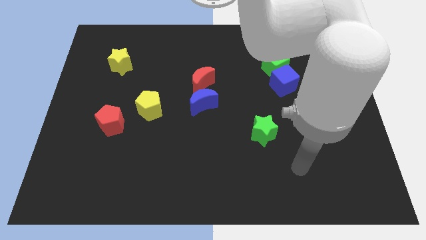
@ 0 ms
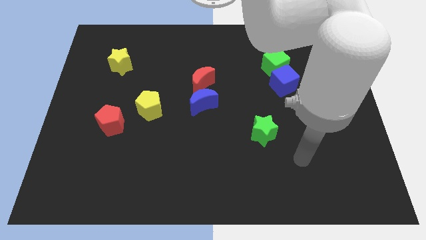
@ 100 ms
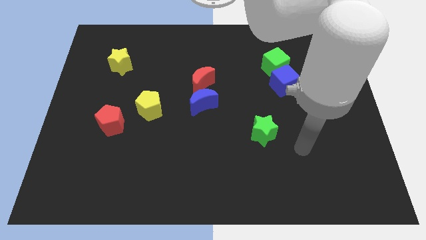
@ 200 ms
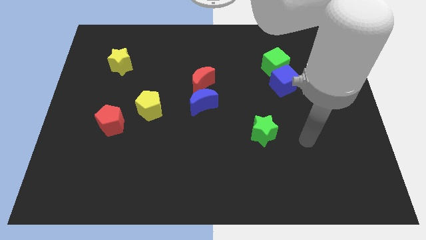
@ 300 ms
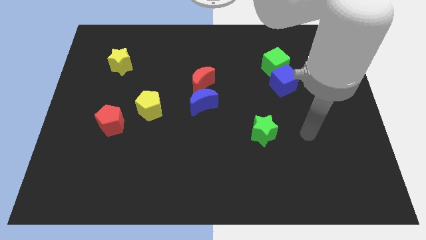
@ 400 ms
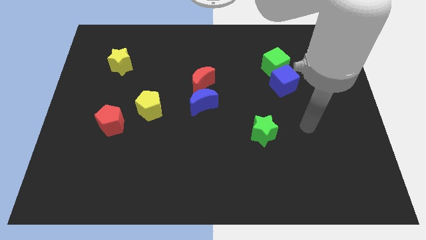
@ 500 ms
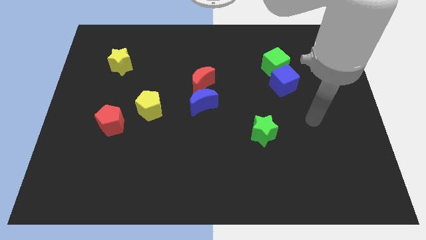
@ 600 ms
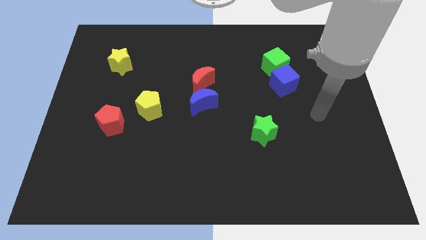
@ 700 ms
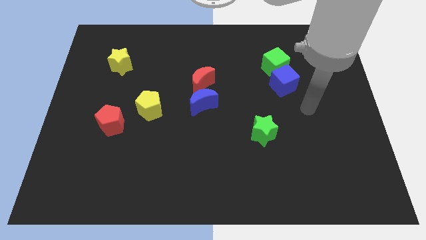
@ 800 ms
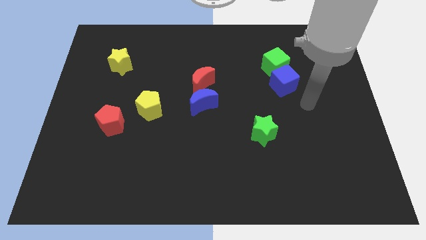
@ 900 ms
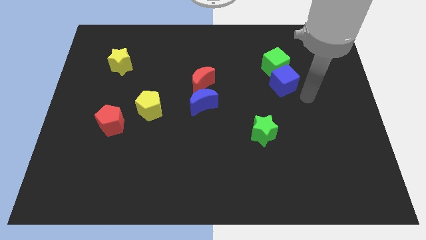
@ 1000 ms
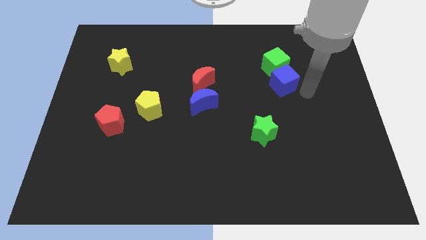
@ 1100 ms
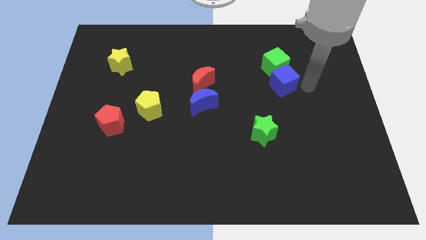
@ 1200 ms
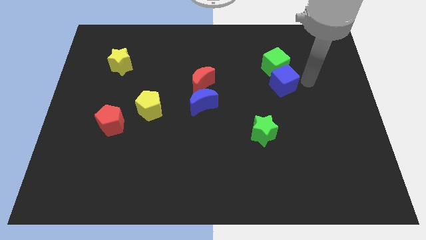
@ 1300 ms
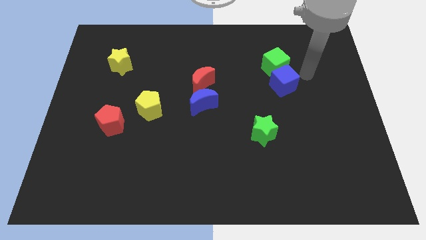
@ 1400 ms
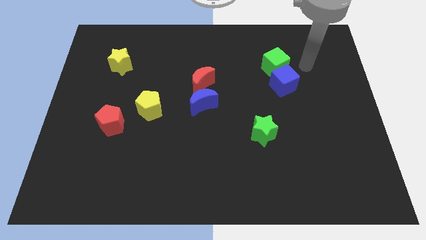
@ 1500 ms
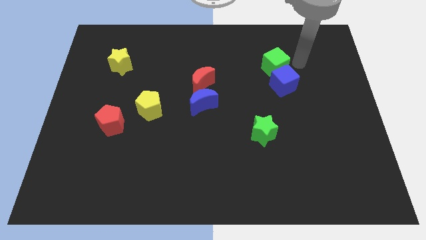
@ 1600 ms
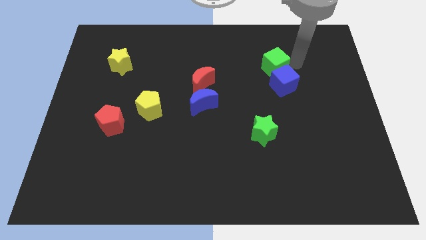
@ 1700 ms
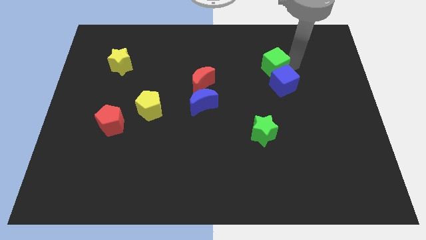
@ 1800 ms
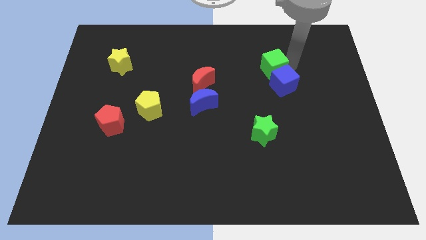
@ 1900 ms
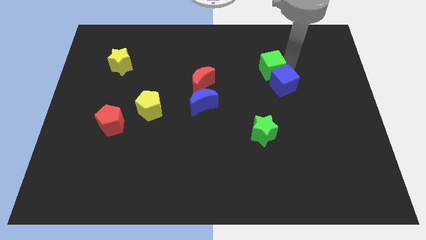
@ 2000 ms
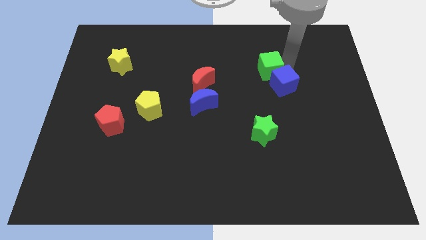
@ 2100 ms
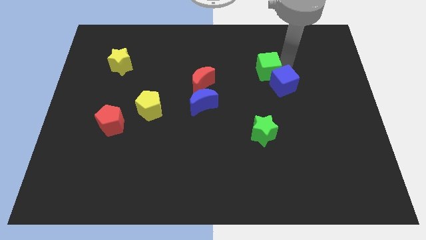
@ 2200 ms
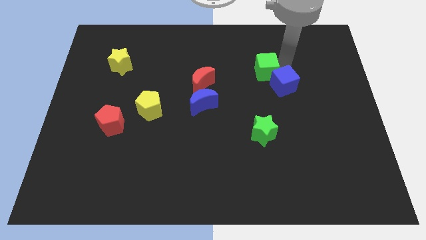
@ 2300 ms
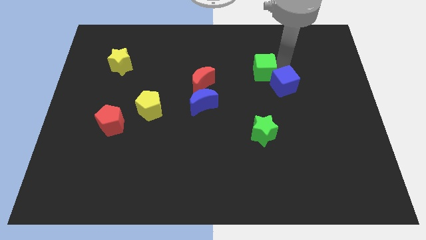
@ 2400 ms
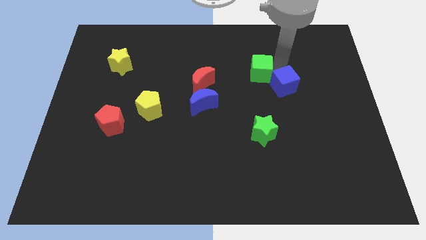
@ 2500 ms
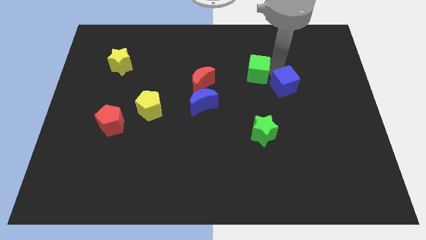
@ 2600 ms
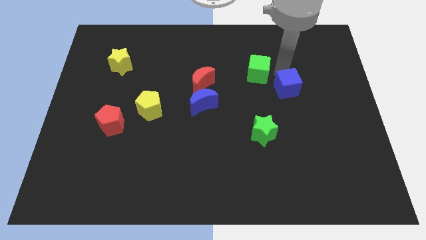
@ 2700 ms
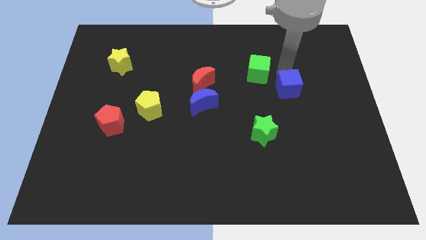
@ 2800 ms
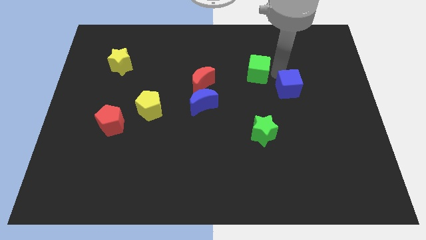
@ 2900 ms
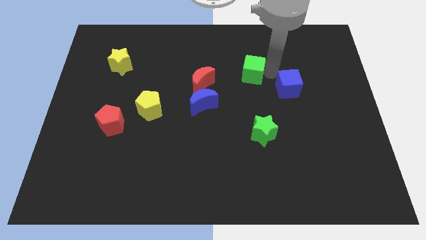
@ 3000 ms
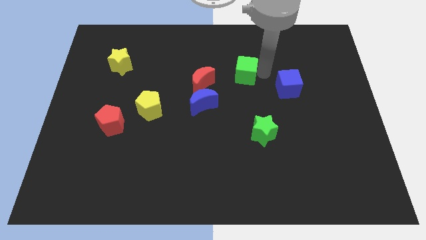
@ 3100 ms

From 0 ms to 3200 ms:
slide the green cube to the left somewhat

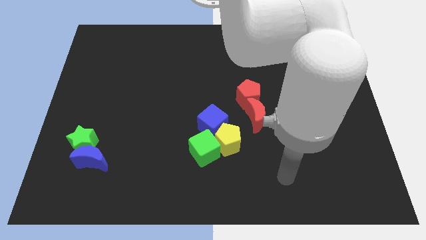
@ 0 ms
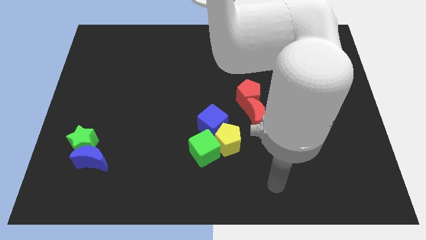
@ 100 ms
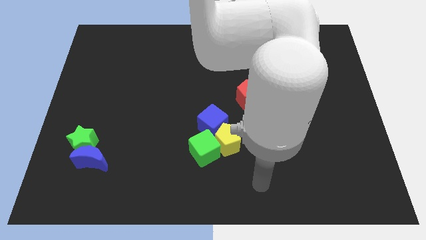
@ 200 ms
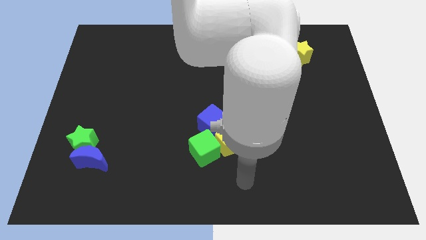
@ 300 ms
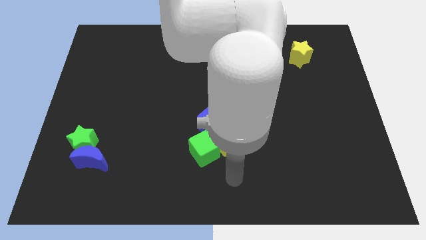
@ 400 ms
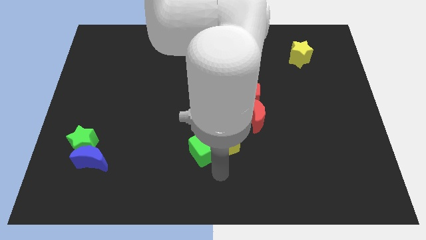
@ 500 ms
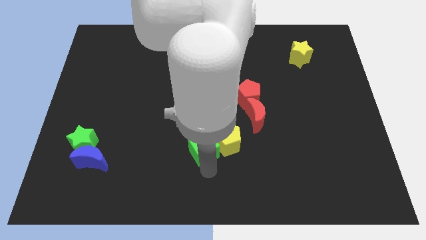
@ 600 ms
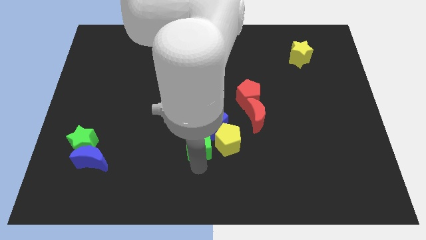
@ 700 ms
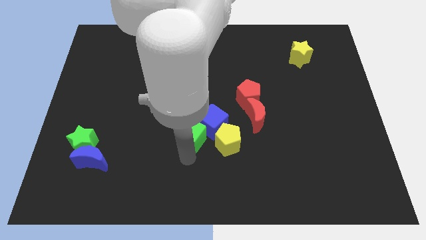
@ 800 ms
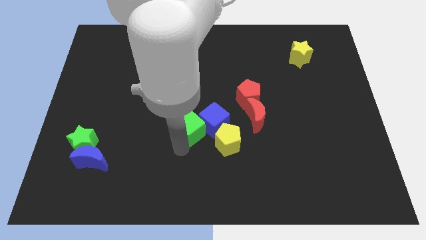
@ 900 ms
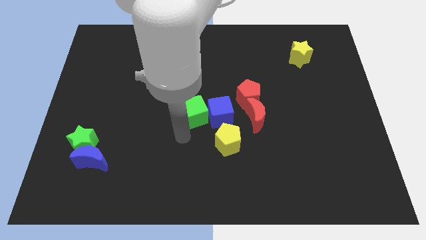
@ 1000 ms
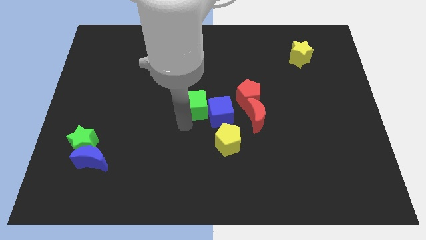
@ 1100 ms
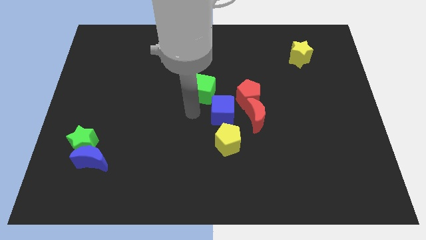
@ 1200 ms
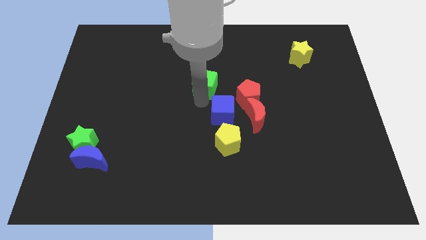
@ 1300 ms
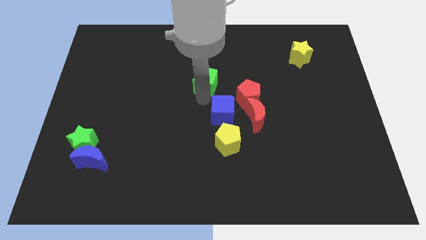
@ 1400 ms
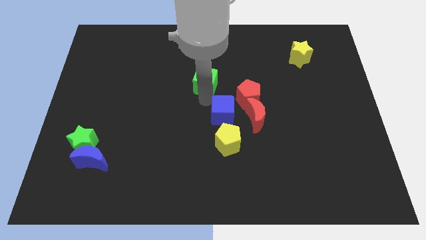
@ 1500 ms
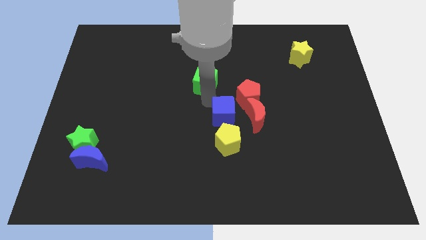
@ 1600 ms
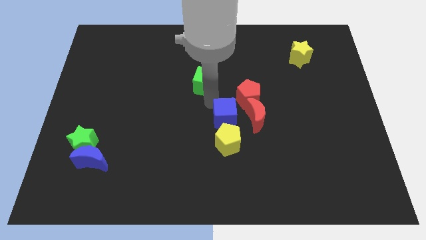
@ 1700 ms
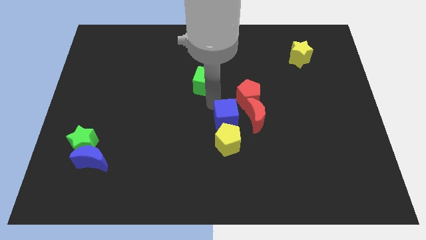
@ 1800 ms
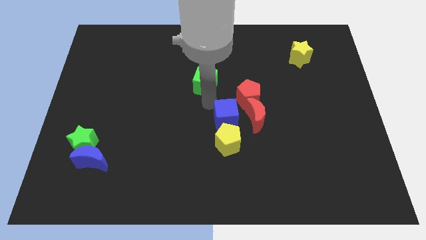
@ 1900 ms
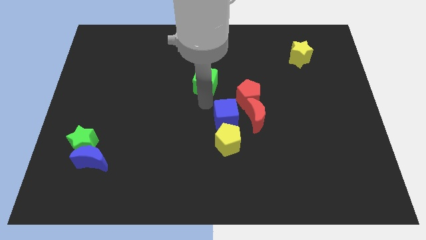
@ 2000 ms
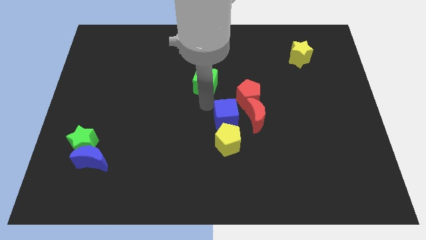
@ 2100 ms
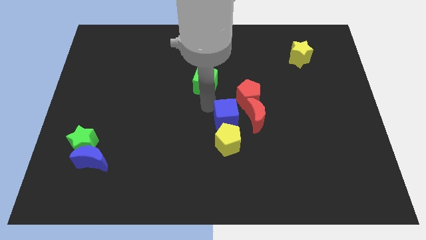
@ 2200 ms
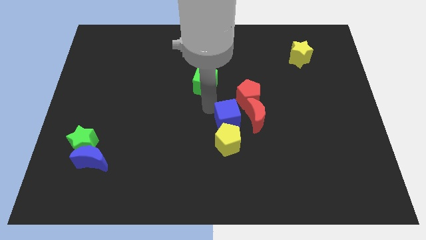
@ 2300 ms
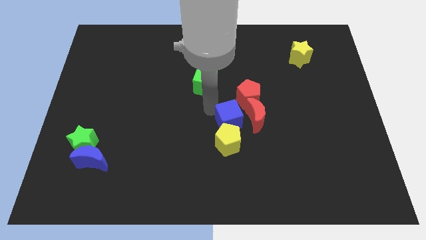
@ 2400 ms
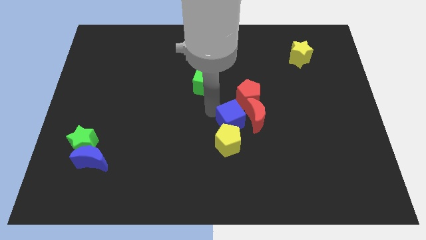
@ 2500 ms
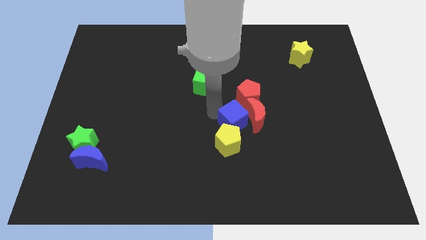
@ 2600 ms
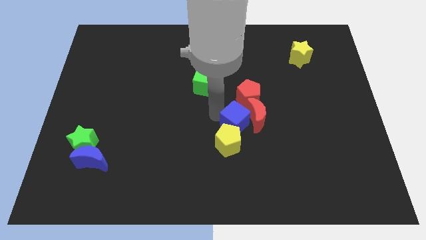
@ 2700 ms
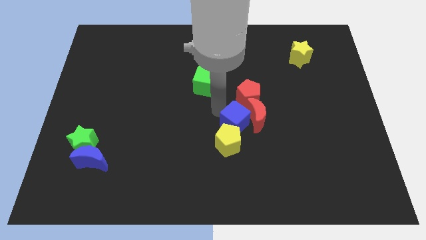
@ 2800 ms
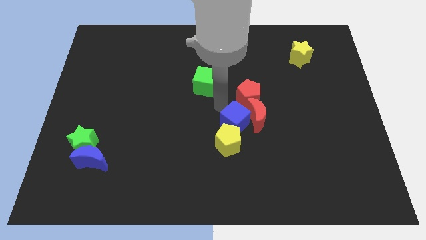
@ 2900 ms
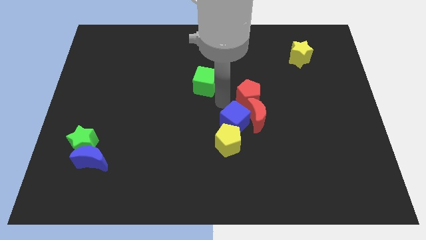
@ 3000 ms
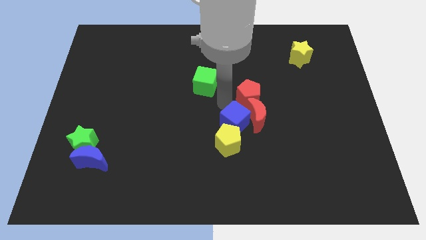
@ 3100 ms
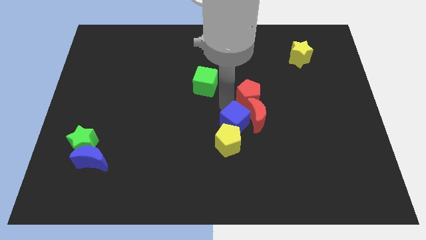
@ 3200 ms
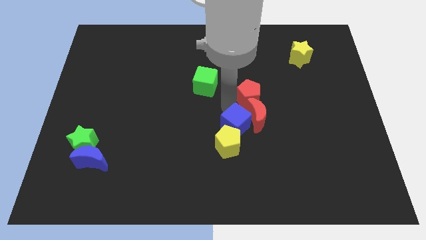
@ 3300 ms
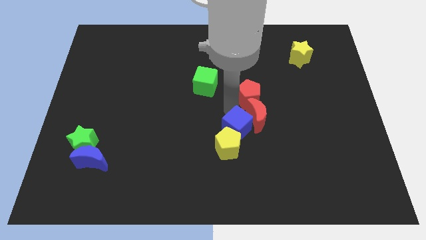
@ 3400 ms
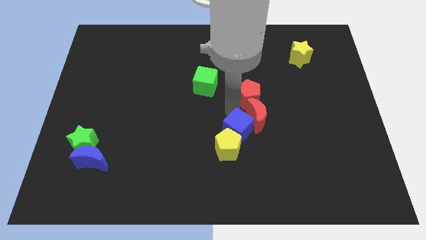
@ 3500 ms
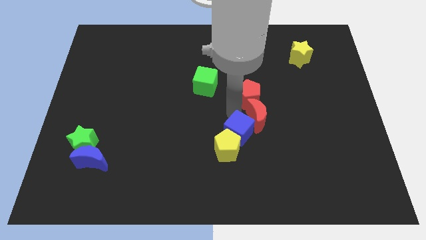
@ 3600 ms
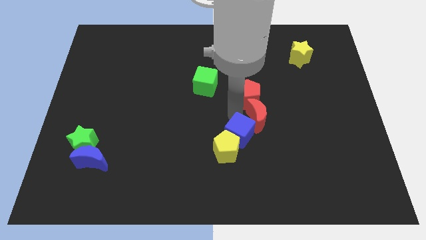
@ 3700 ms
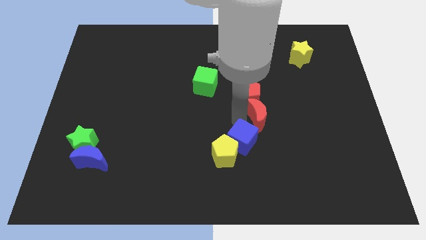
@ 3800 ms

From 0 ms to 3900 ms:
push the blue cube somewhat down and right diagonally

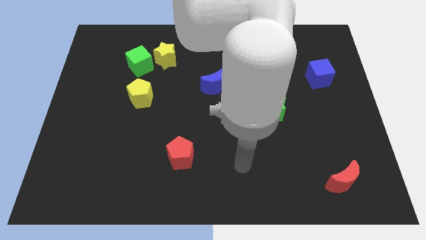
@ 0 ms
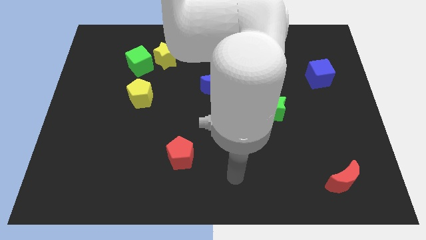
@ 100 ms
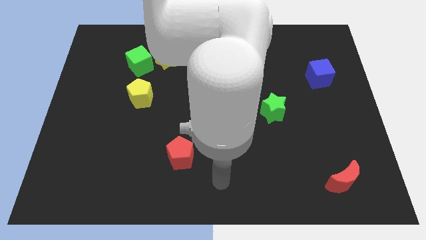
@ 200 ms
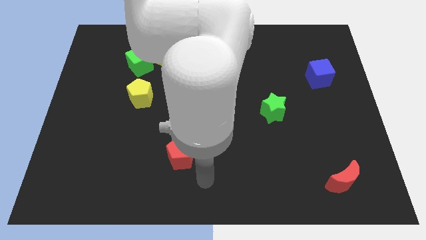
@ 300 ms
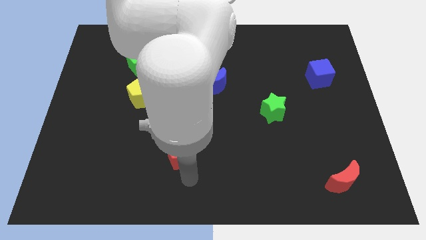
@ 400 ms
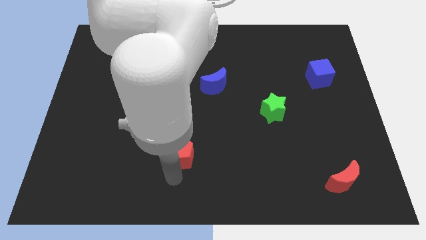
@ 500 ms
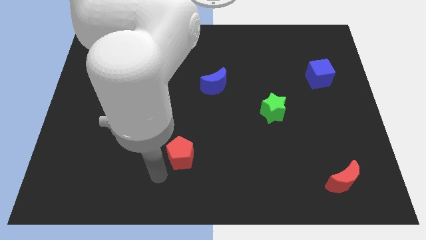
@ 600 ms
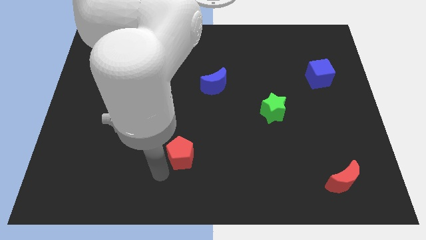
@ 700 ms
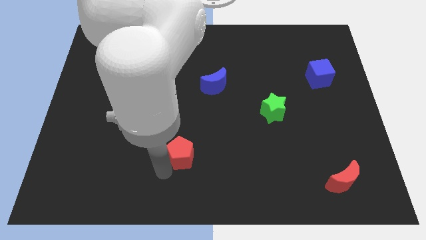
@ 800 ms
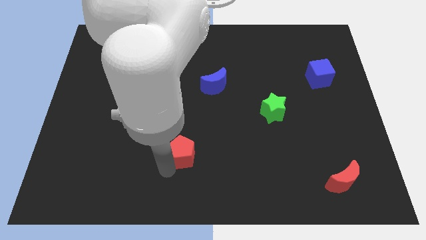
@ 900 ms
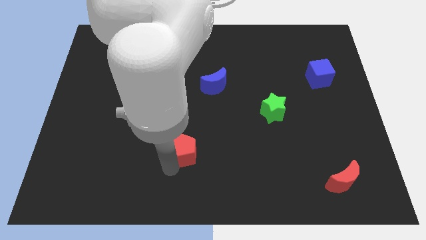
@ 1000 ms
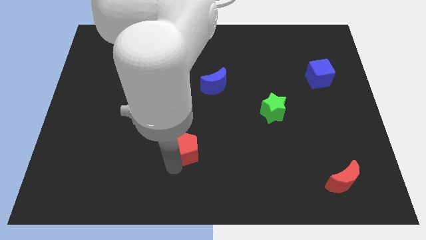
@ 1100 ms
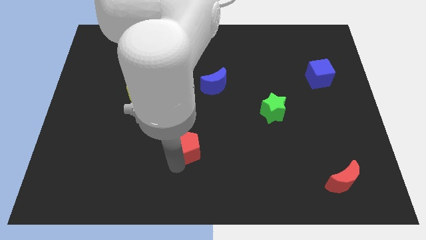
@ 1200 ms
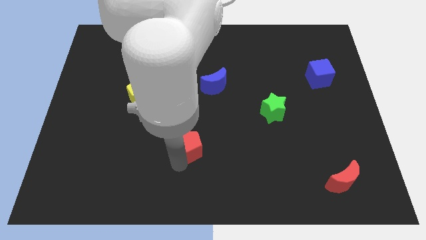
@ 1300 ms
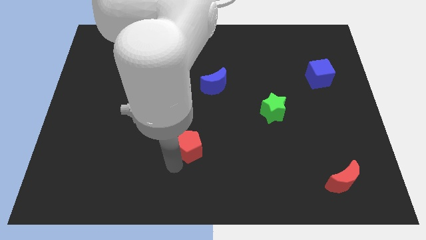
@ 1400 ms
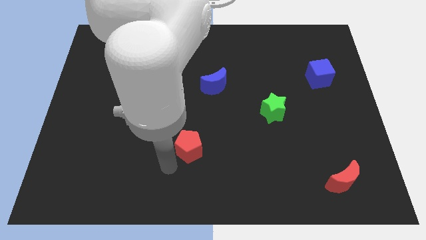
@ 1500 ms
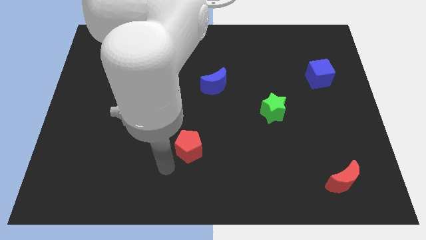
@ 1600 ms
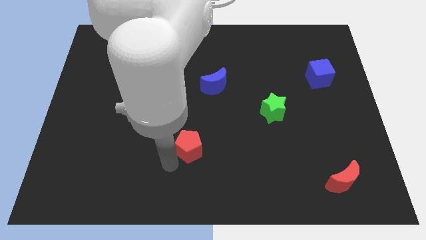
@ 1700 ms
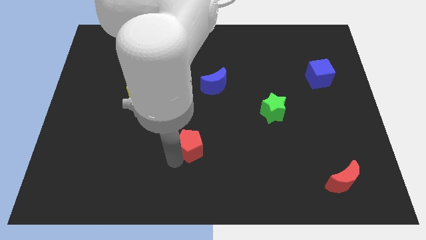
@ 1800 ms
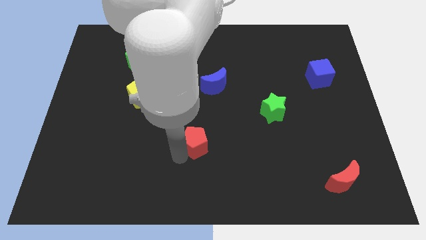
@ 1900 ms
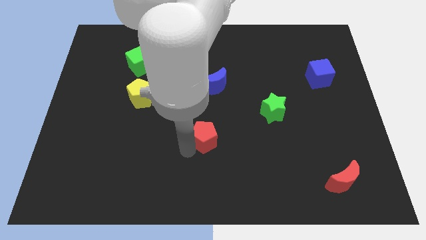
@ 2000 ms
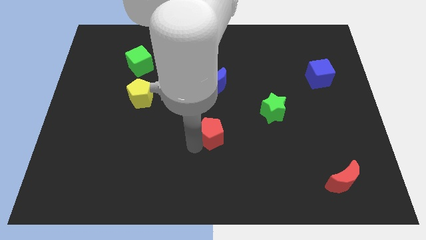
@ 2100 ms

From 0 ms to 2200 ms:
push the red pentagon up and then right a little bit
